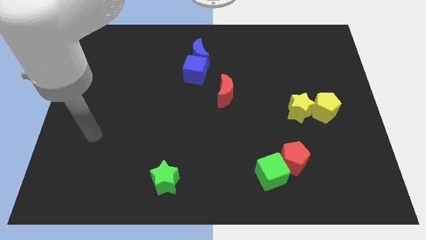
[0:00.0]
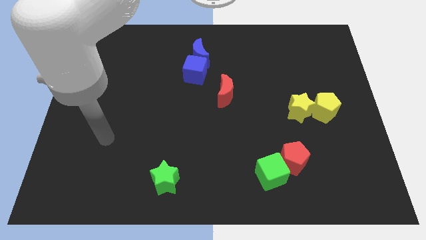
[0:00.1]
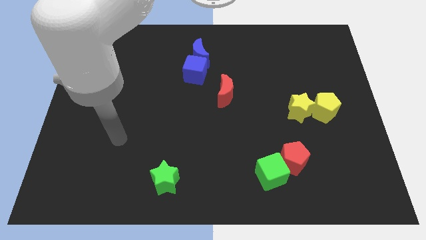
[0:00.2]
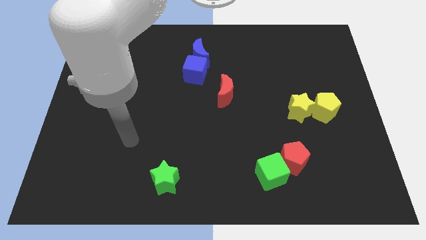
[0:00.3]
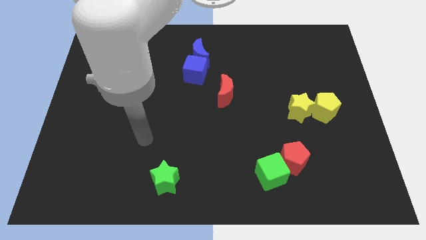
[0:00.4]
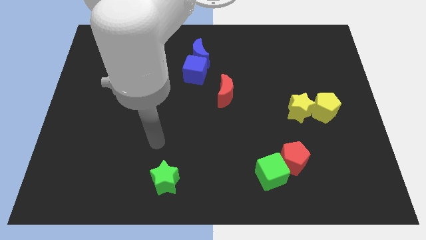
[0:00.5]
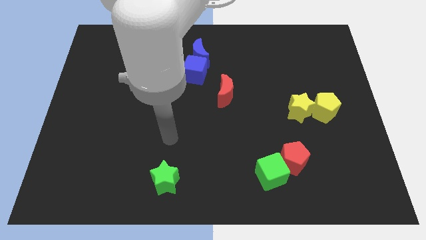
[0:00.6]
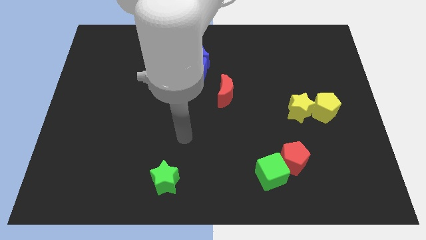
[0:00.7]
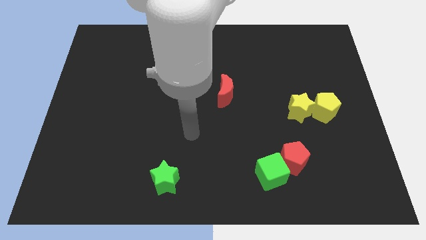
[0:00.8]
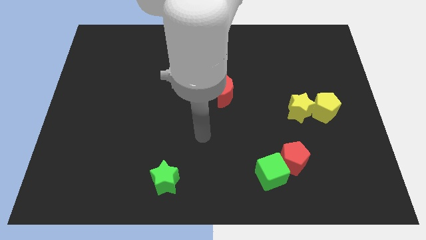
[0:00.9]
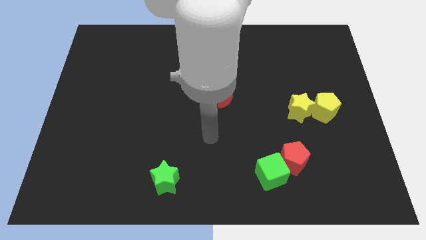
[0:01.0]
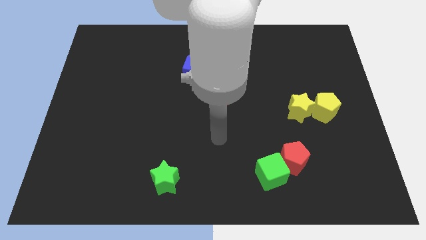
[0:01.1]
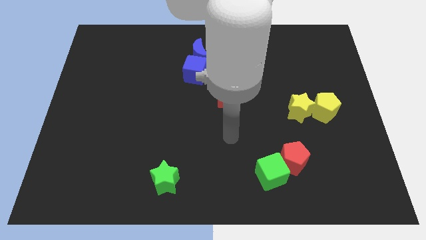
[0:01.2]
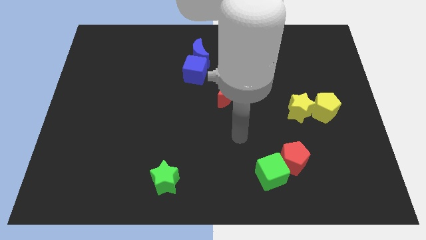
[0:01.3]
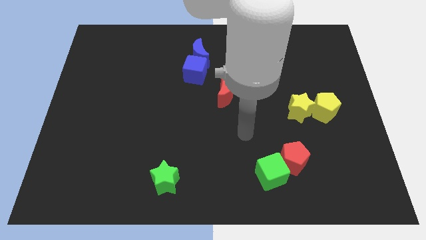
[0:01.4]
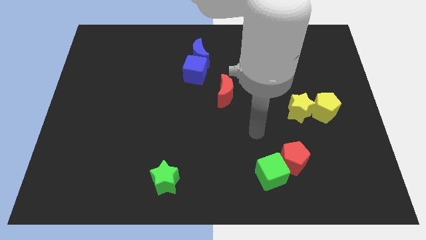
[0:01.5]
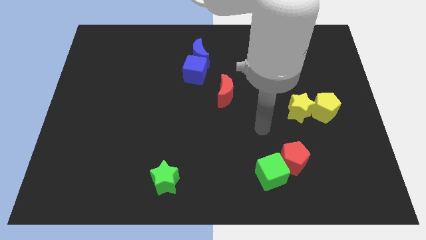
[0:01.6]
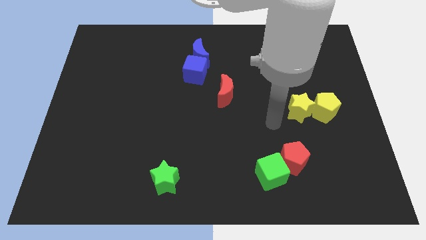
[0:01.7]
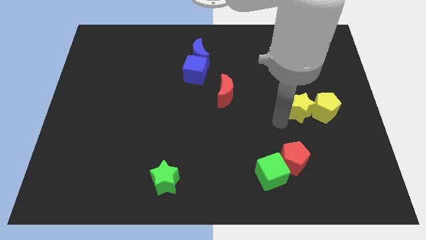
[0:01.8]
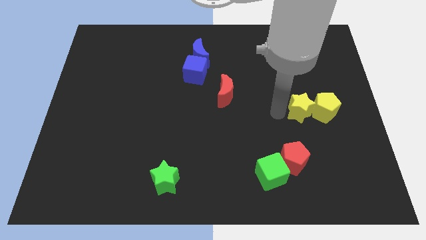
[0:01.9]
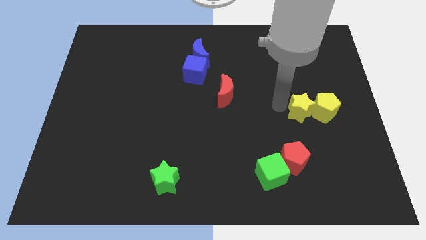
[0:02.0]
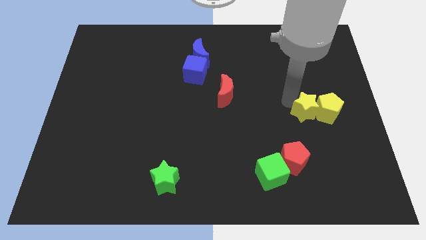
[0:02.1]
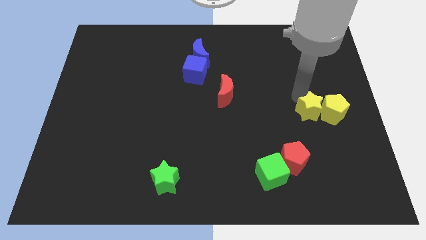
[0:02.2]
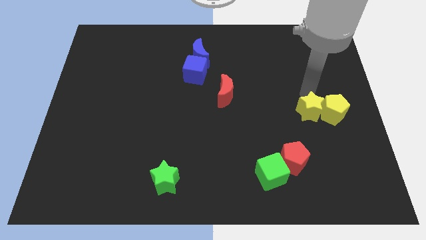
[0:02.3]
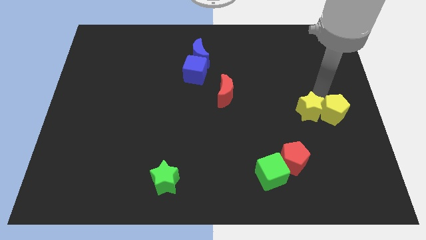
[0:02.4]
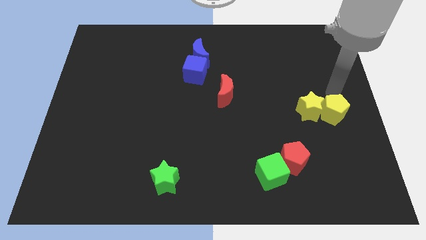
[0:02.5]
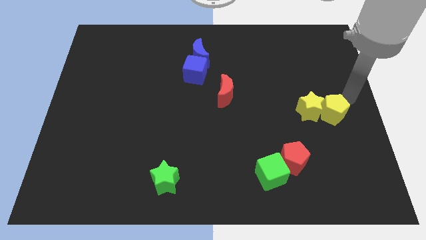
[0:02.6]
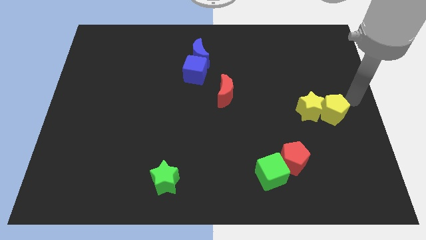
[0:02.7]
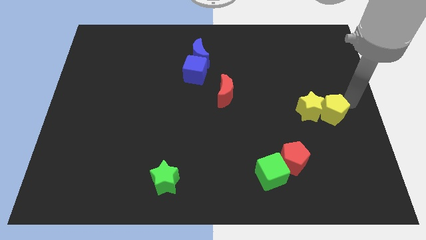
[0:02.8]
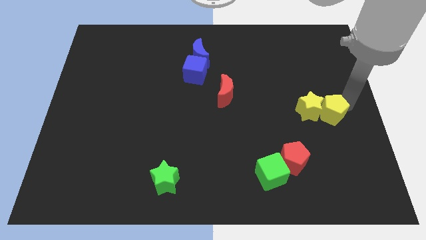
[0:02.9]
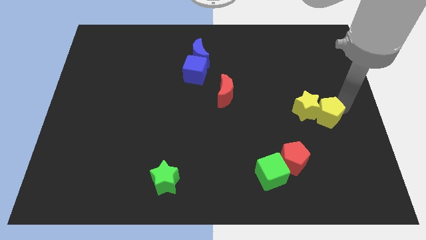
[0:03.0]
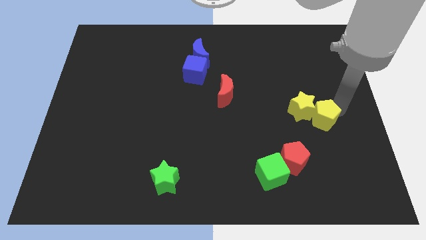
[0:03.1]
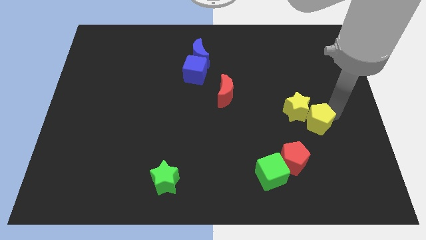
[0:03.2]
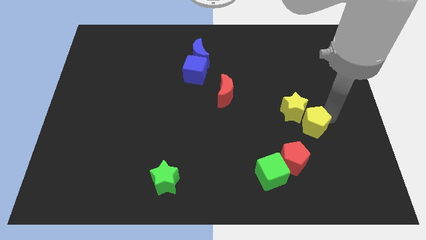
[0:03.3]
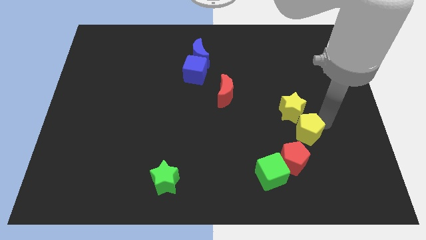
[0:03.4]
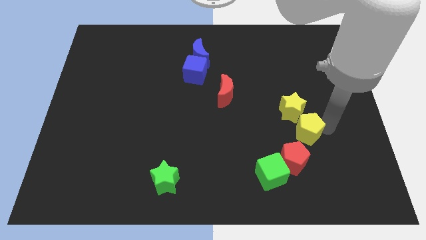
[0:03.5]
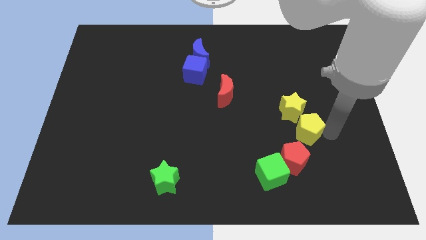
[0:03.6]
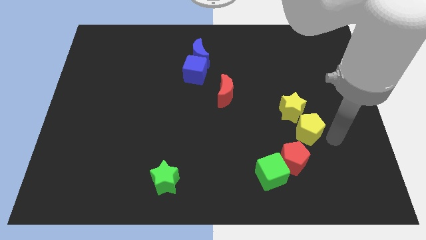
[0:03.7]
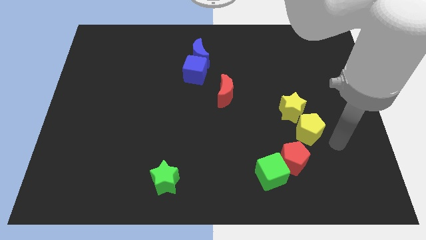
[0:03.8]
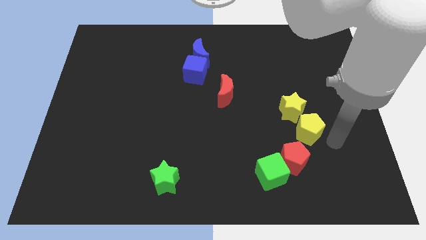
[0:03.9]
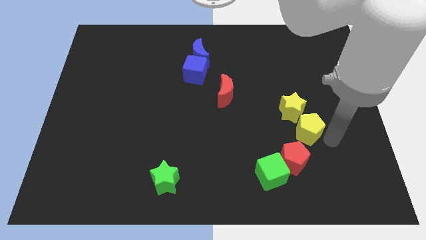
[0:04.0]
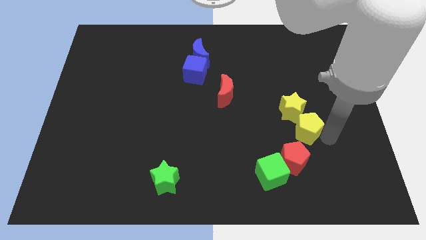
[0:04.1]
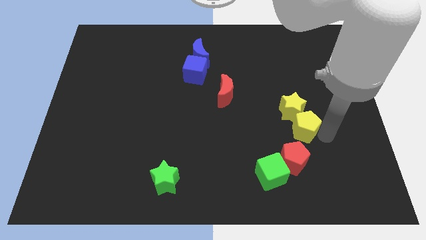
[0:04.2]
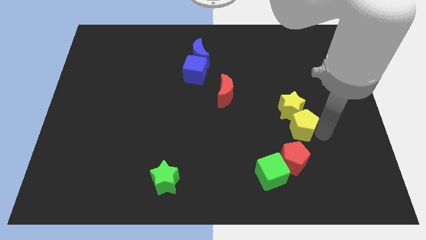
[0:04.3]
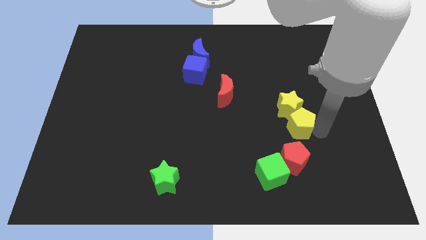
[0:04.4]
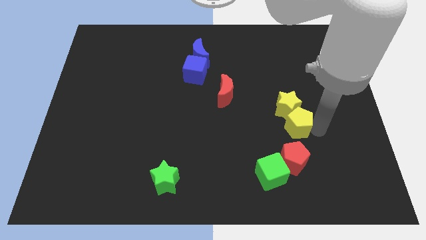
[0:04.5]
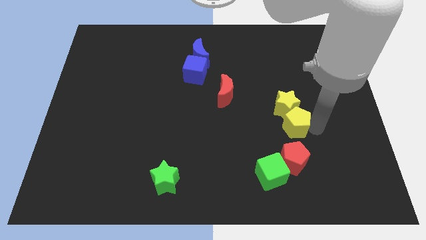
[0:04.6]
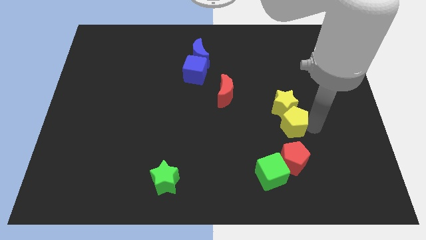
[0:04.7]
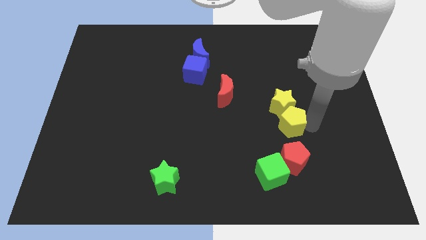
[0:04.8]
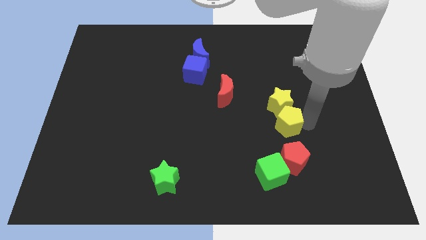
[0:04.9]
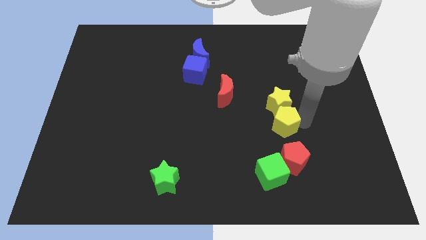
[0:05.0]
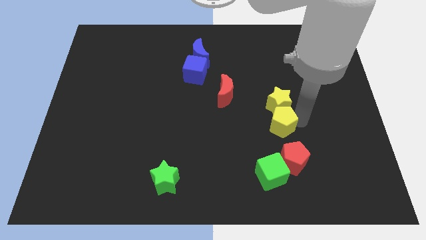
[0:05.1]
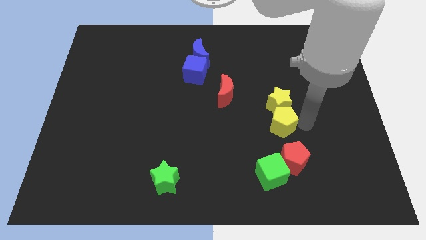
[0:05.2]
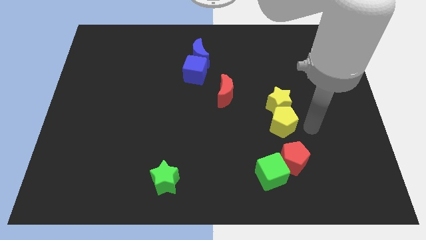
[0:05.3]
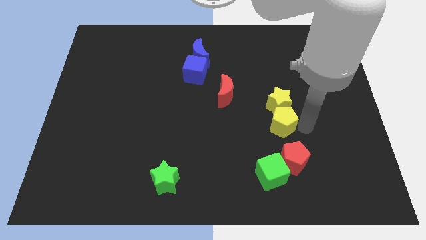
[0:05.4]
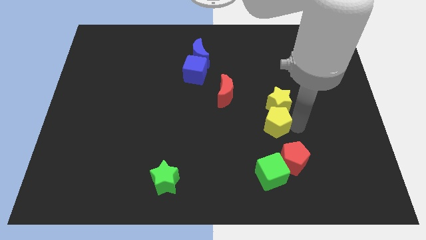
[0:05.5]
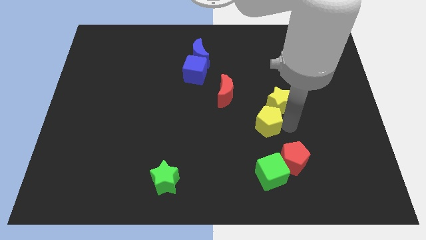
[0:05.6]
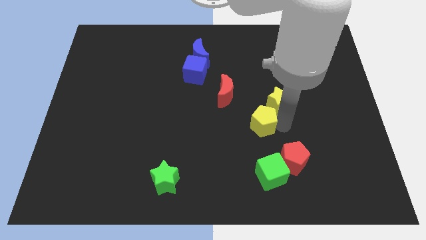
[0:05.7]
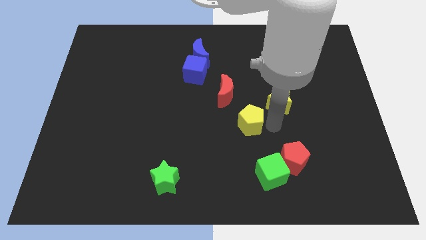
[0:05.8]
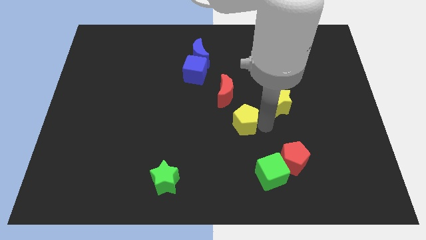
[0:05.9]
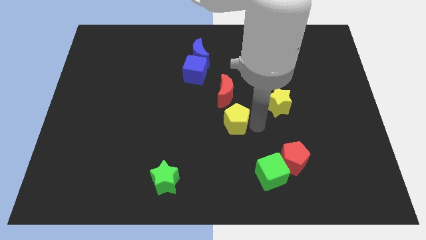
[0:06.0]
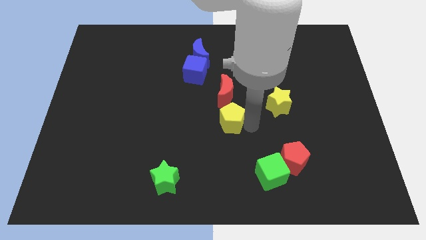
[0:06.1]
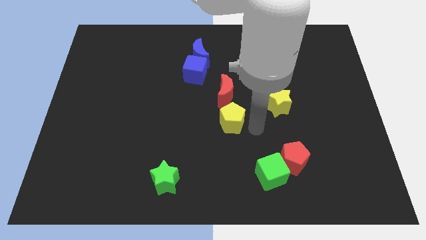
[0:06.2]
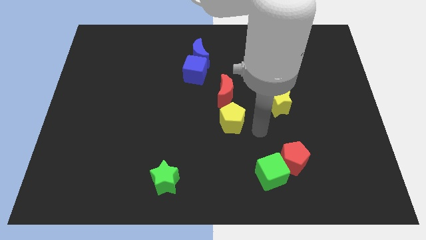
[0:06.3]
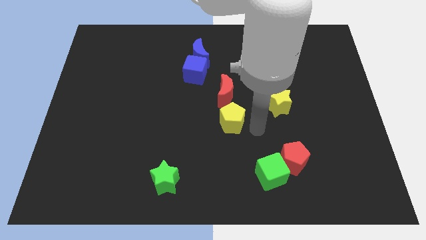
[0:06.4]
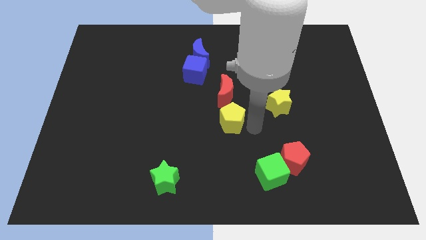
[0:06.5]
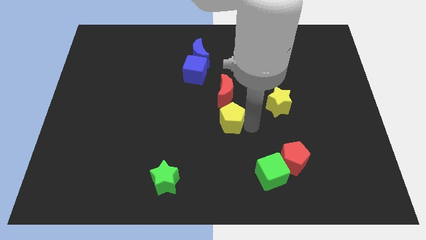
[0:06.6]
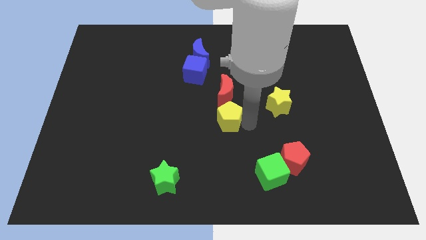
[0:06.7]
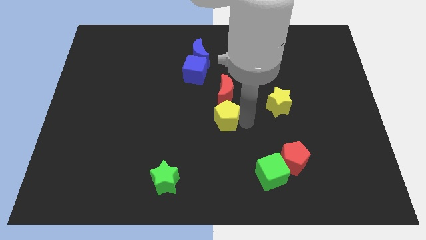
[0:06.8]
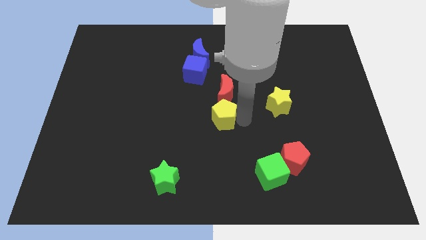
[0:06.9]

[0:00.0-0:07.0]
move the yellow pentagon to the bottom left of the red moon

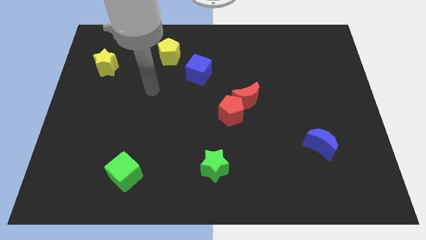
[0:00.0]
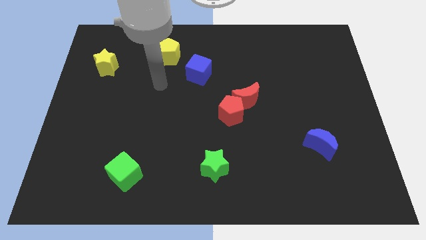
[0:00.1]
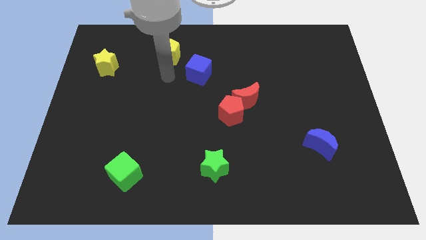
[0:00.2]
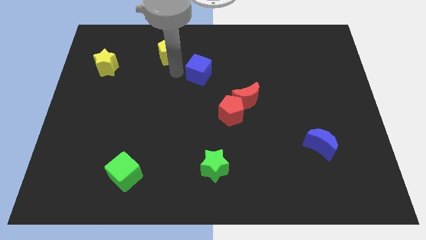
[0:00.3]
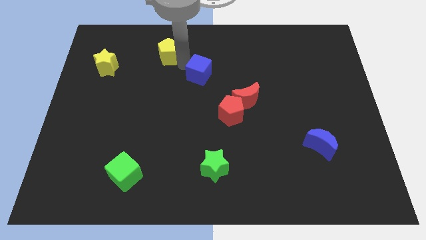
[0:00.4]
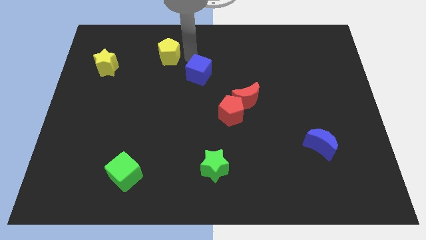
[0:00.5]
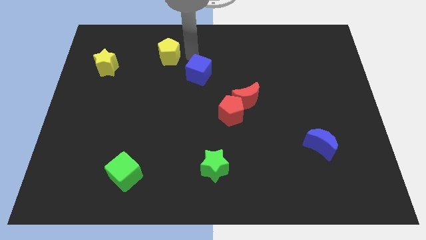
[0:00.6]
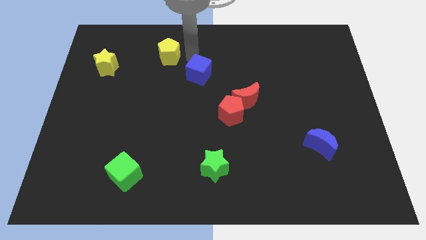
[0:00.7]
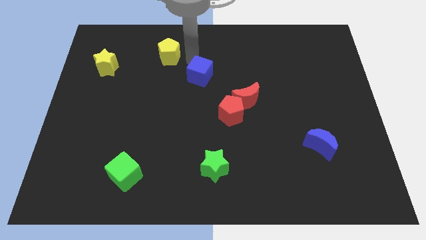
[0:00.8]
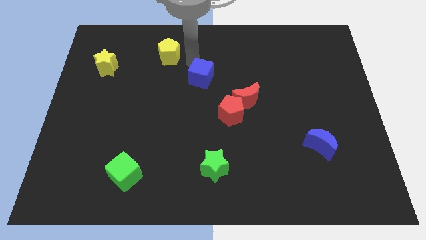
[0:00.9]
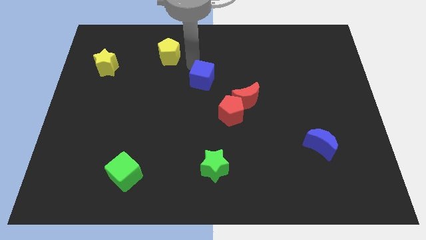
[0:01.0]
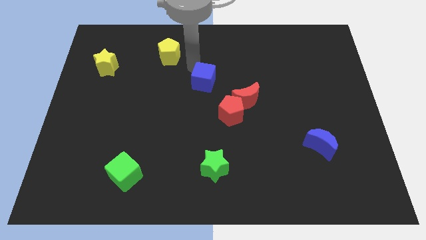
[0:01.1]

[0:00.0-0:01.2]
push the blue cube diagonally up and to the left of the red pentagon
